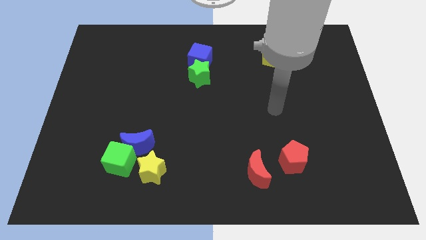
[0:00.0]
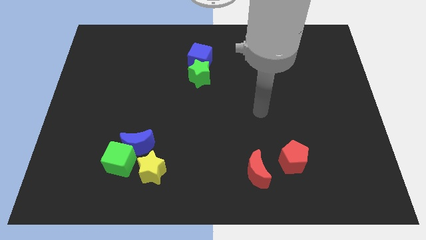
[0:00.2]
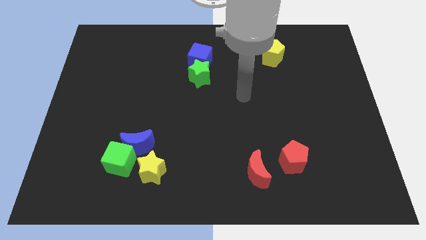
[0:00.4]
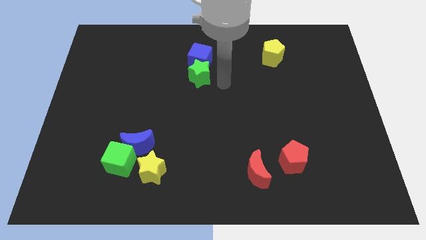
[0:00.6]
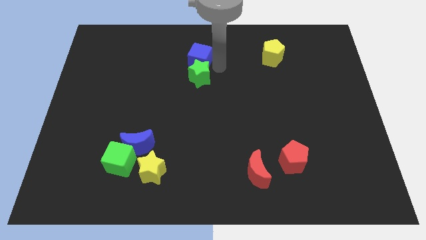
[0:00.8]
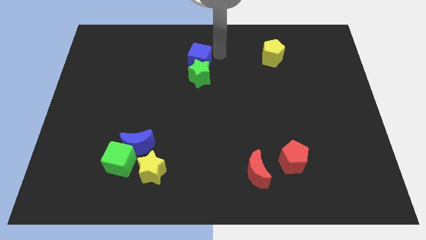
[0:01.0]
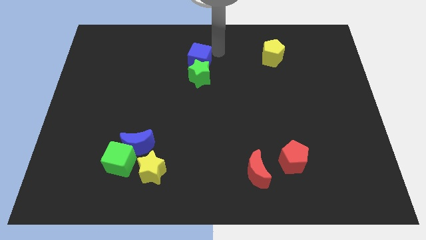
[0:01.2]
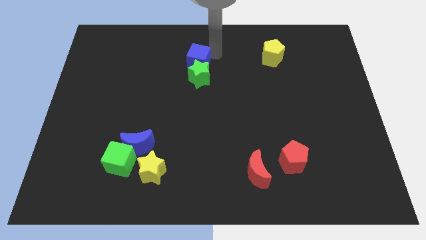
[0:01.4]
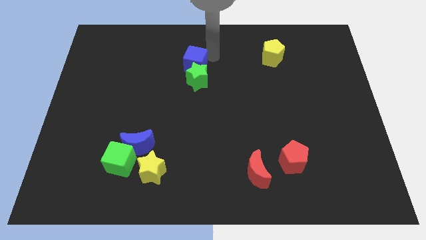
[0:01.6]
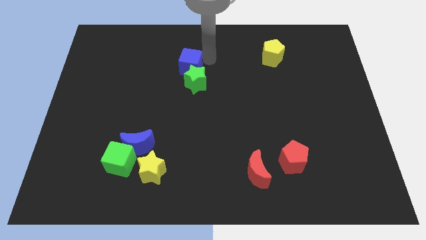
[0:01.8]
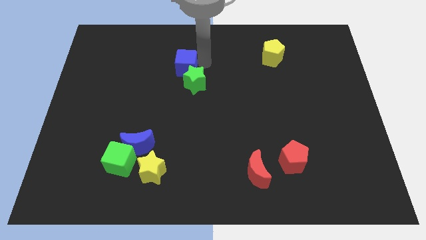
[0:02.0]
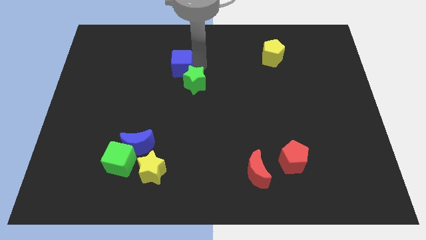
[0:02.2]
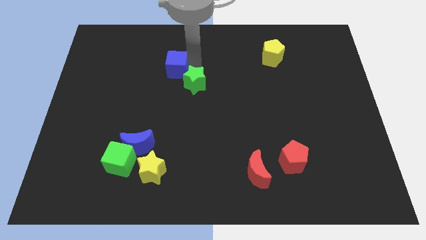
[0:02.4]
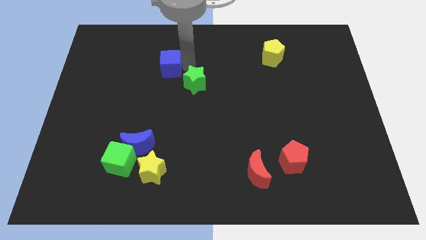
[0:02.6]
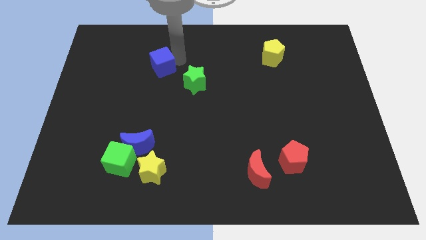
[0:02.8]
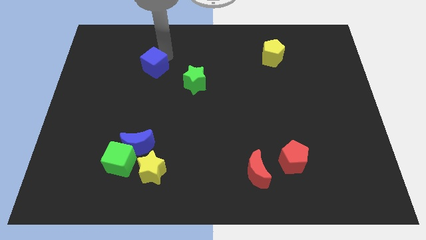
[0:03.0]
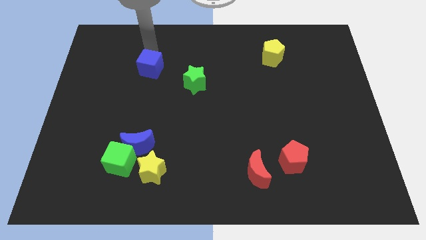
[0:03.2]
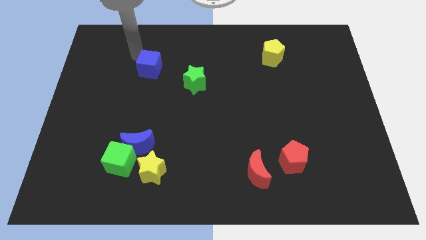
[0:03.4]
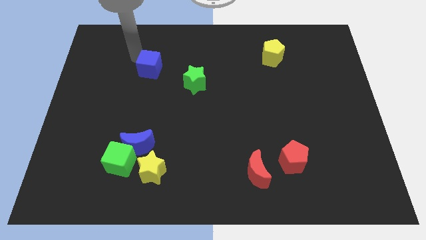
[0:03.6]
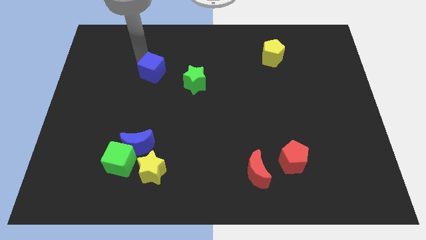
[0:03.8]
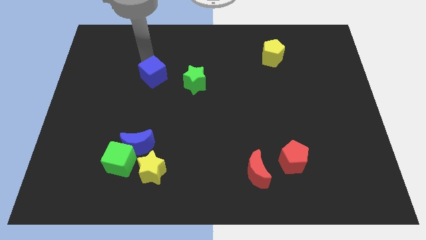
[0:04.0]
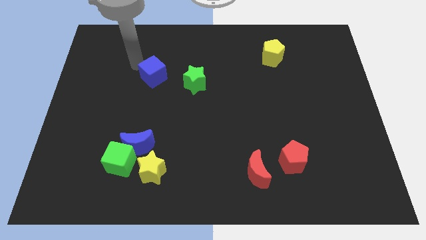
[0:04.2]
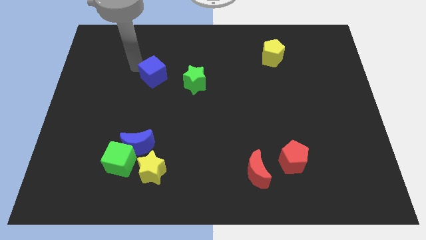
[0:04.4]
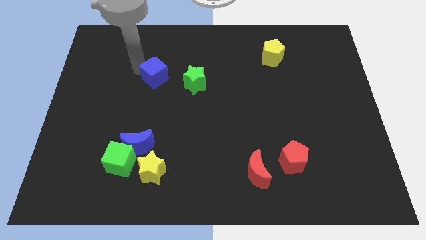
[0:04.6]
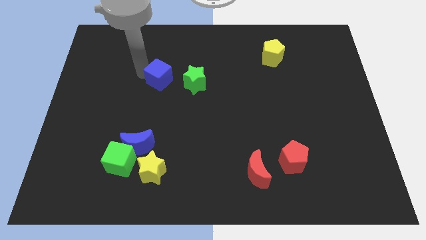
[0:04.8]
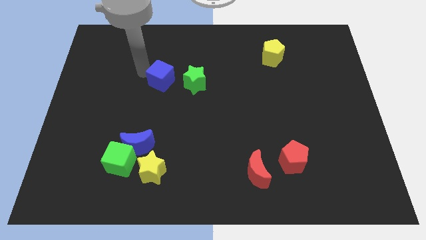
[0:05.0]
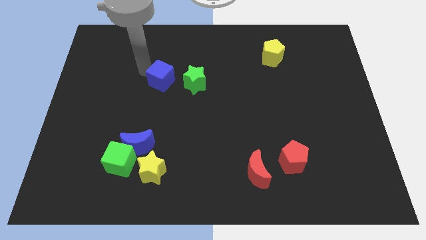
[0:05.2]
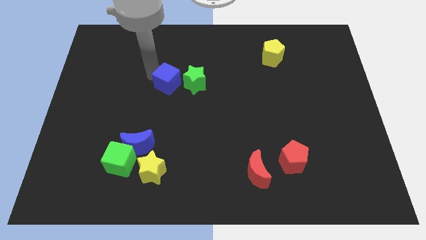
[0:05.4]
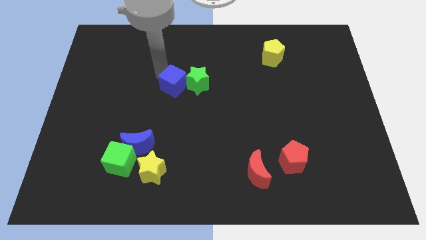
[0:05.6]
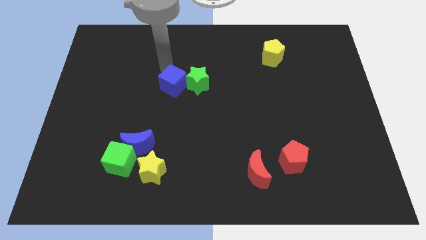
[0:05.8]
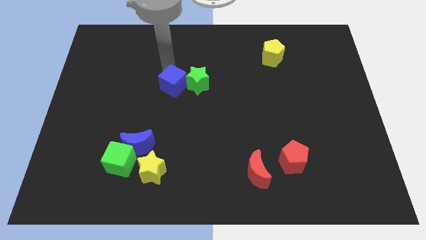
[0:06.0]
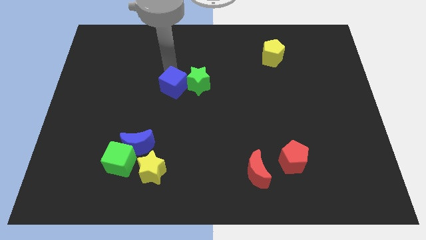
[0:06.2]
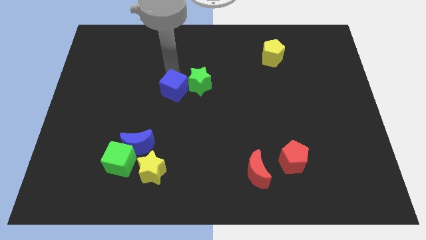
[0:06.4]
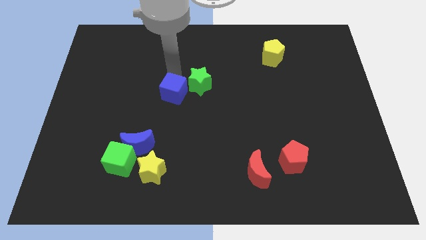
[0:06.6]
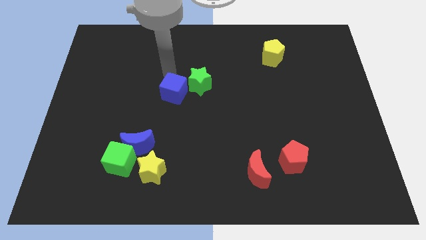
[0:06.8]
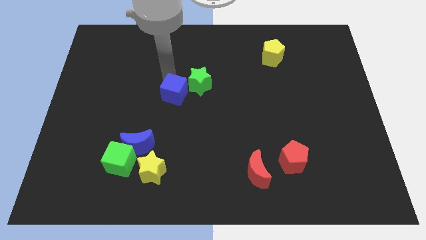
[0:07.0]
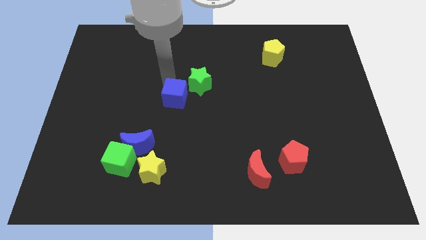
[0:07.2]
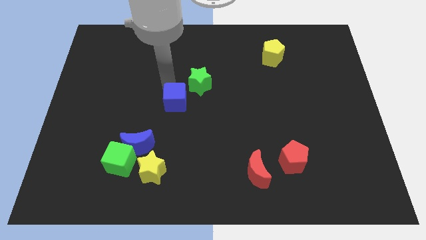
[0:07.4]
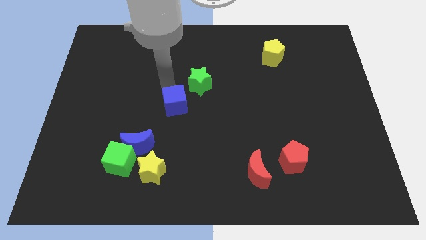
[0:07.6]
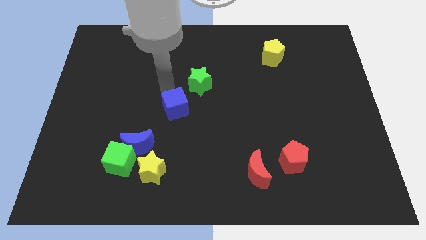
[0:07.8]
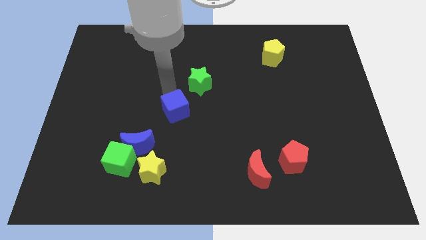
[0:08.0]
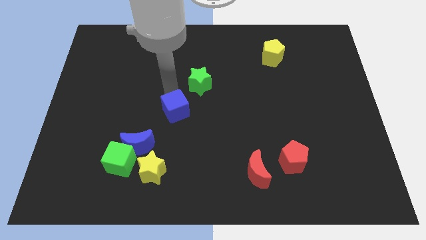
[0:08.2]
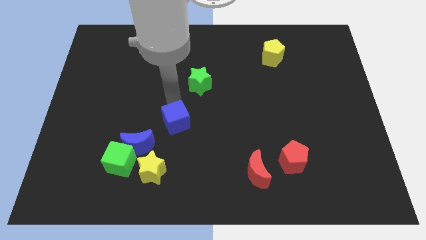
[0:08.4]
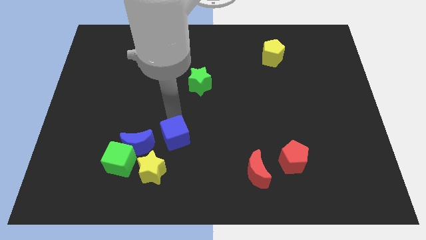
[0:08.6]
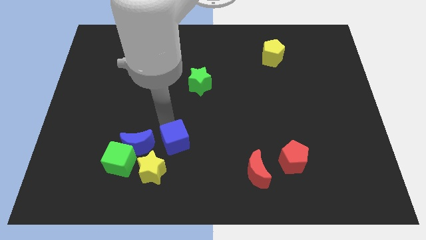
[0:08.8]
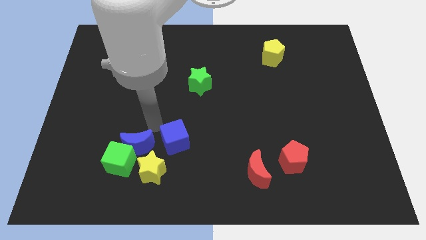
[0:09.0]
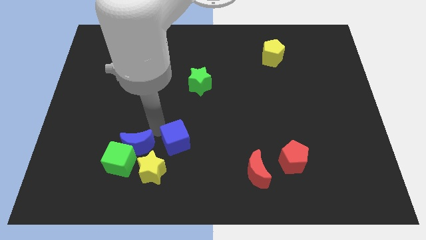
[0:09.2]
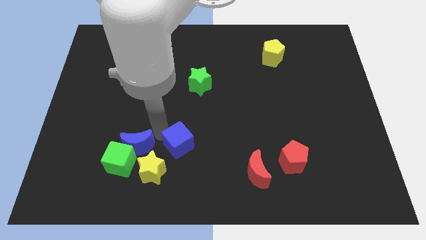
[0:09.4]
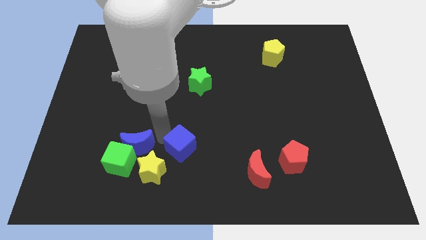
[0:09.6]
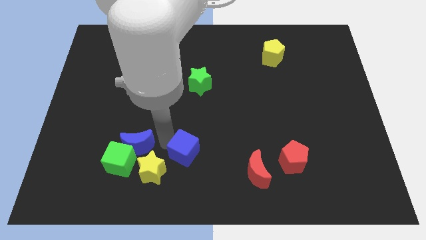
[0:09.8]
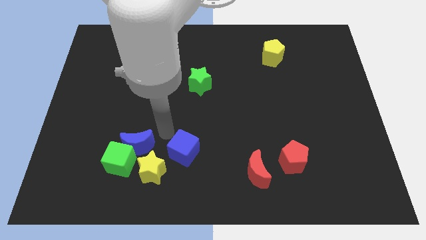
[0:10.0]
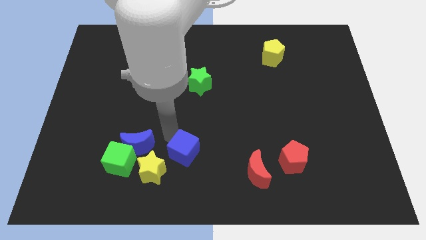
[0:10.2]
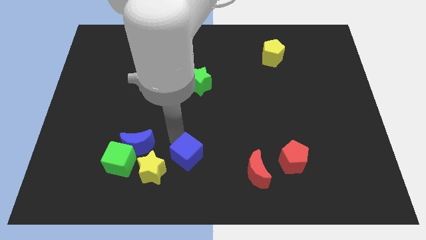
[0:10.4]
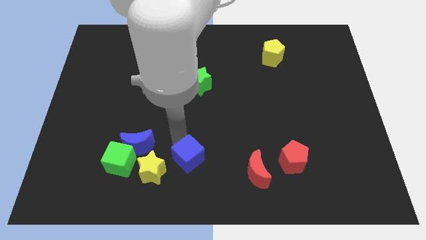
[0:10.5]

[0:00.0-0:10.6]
push the blue cube left of the red moon

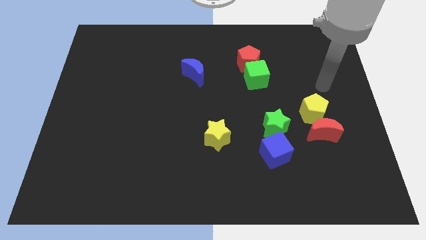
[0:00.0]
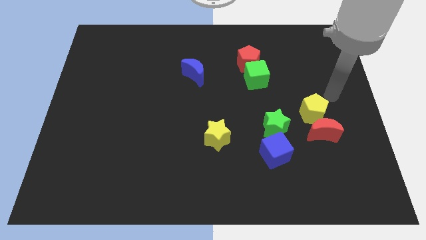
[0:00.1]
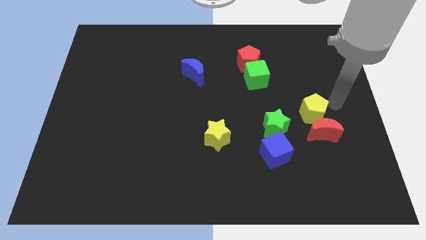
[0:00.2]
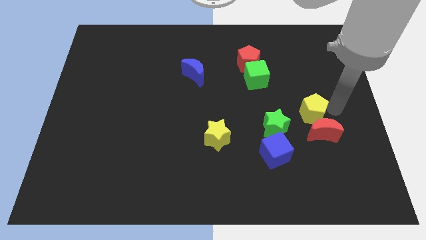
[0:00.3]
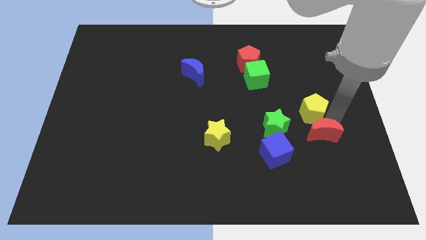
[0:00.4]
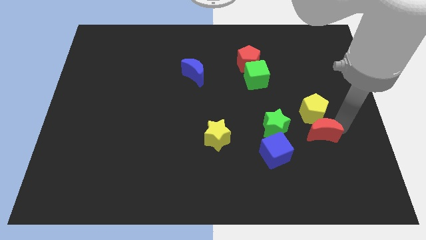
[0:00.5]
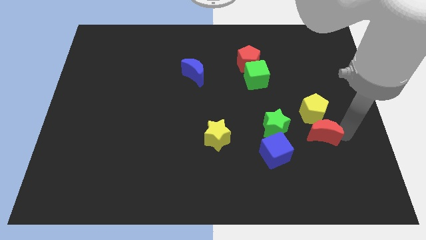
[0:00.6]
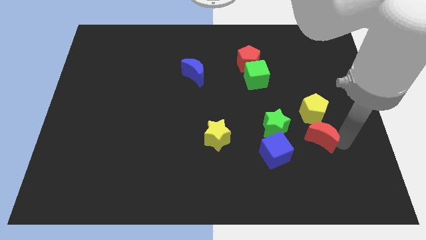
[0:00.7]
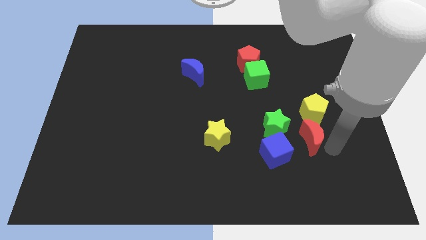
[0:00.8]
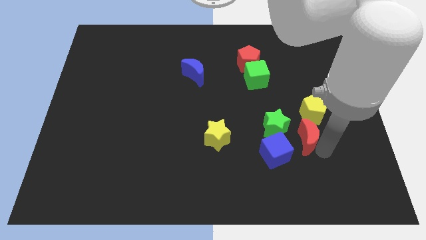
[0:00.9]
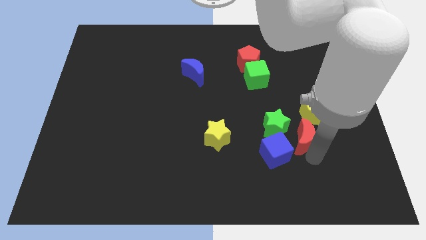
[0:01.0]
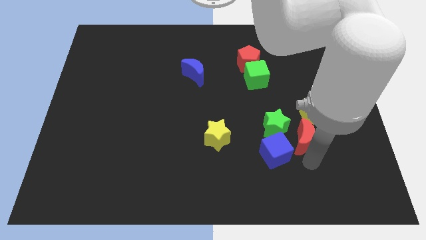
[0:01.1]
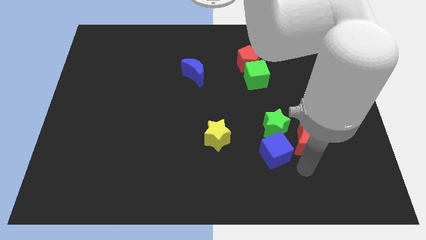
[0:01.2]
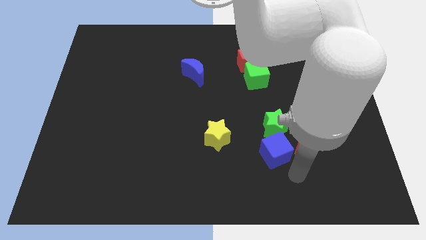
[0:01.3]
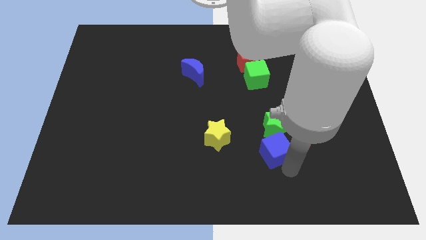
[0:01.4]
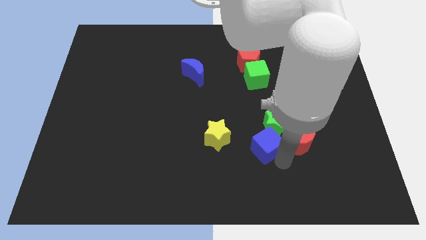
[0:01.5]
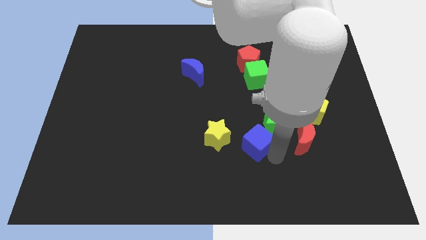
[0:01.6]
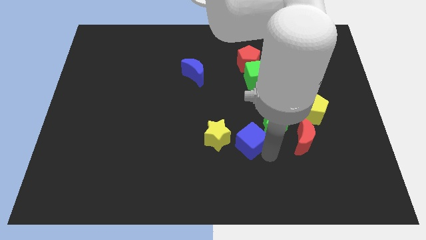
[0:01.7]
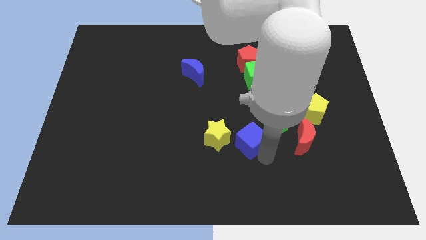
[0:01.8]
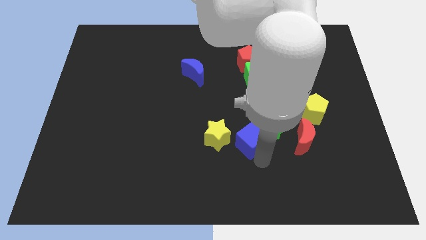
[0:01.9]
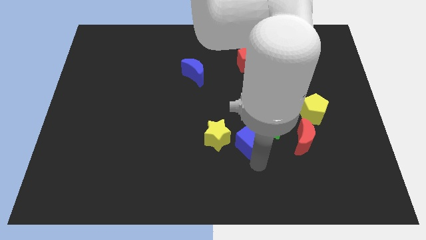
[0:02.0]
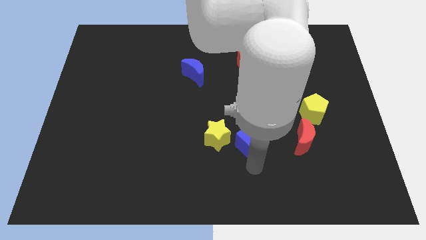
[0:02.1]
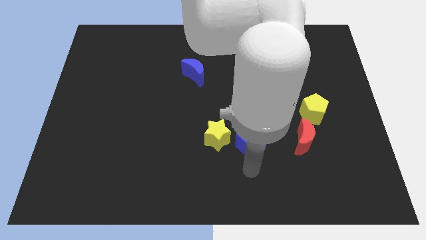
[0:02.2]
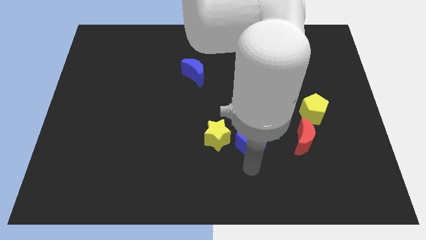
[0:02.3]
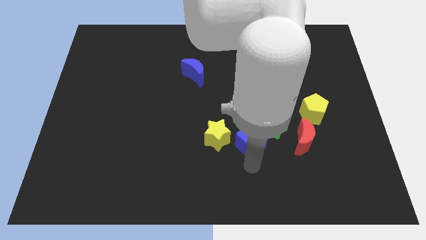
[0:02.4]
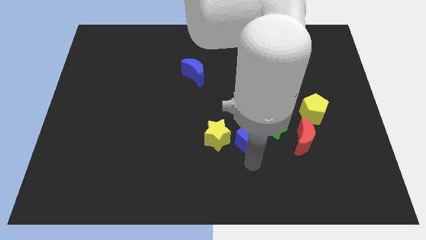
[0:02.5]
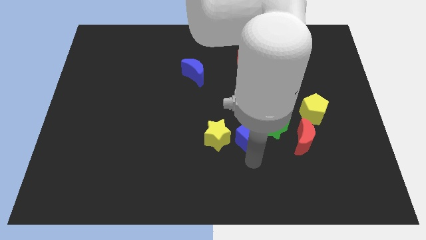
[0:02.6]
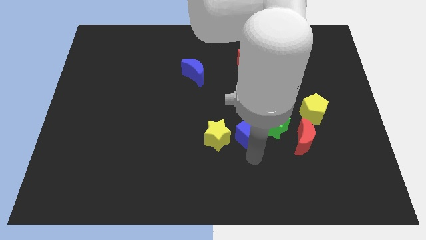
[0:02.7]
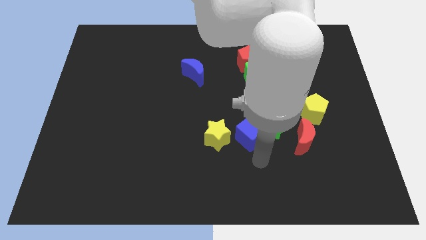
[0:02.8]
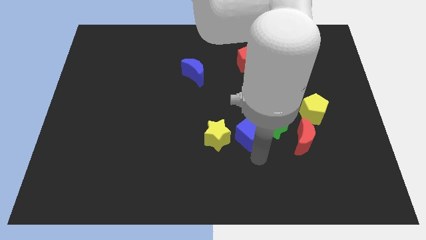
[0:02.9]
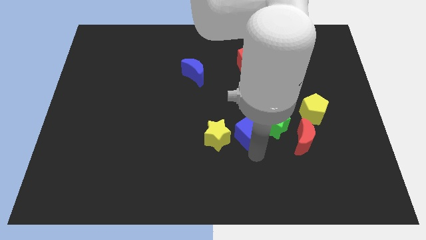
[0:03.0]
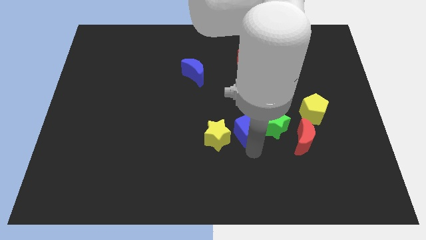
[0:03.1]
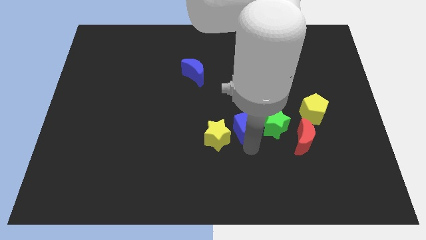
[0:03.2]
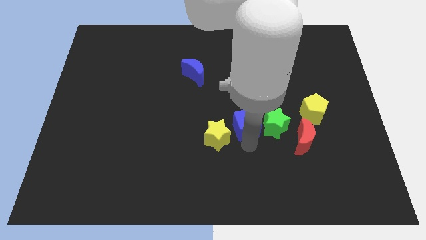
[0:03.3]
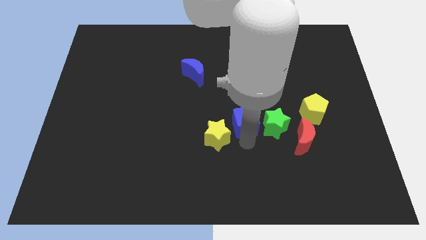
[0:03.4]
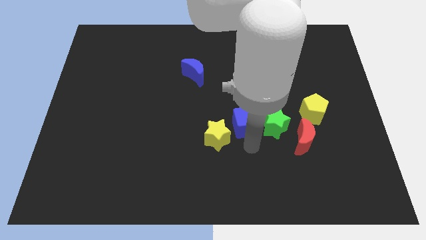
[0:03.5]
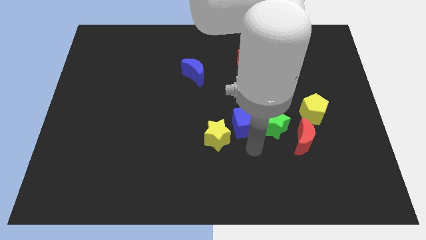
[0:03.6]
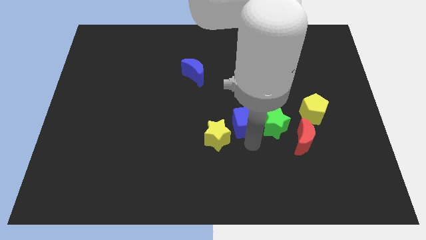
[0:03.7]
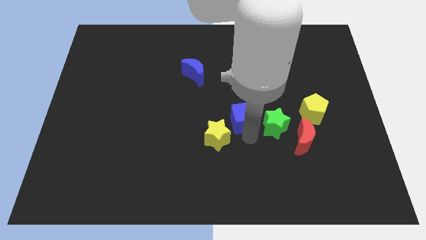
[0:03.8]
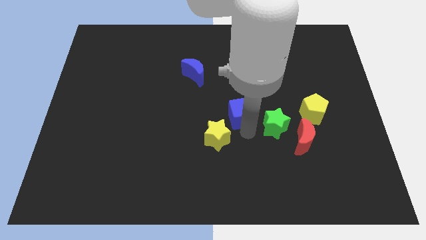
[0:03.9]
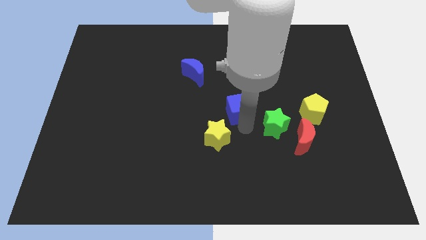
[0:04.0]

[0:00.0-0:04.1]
put the blue cube to the bottom left side of the green cube
